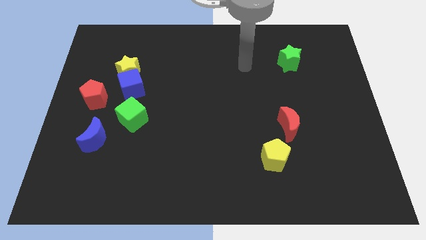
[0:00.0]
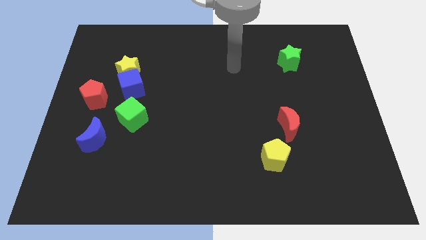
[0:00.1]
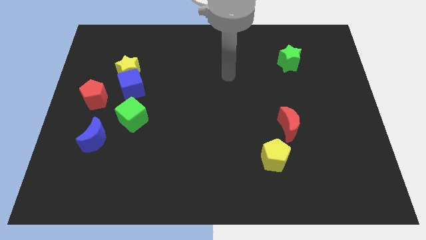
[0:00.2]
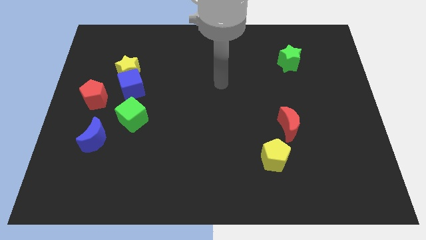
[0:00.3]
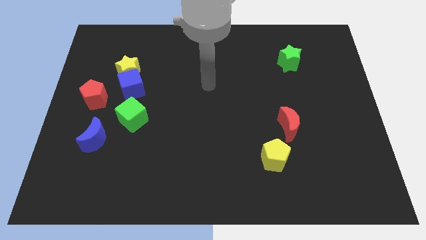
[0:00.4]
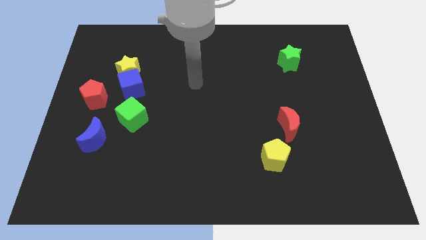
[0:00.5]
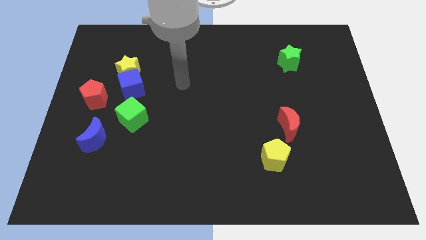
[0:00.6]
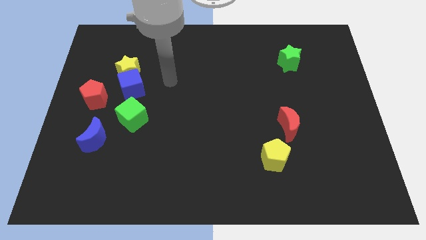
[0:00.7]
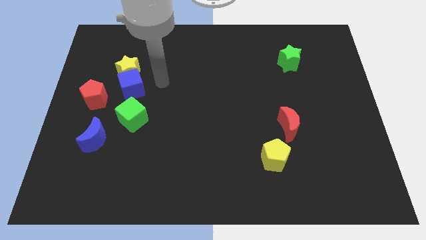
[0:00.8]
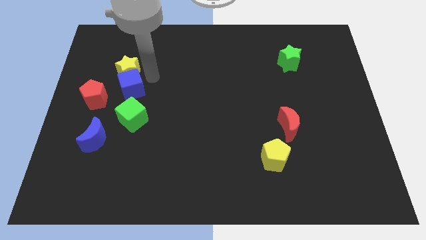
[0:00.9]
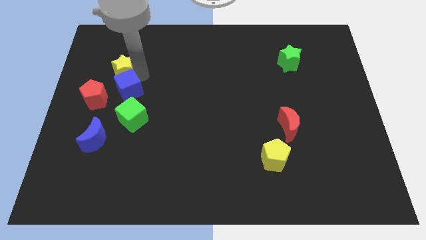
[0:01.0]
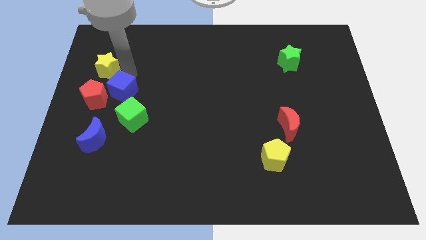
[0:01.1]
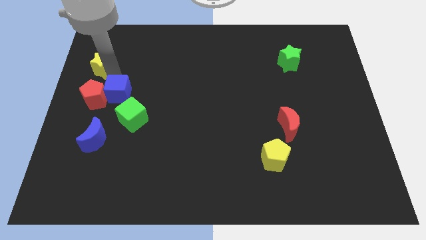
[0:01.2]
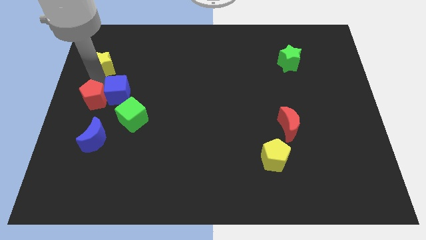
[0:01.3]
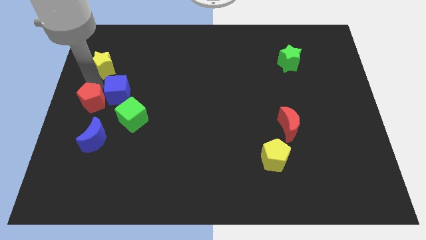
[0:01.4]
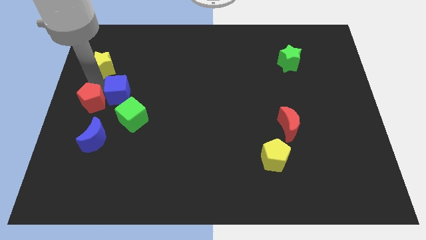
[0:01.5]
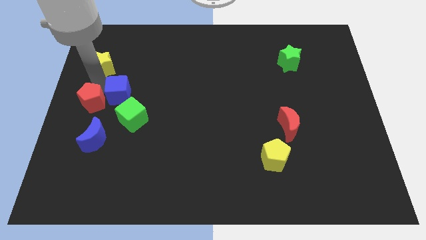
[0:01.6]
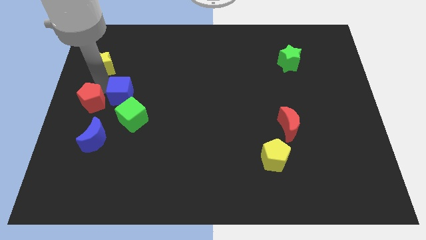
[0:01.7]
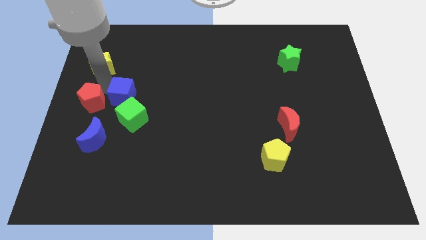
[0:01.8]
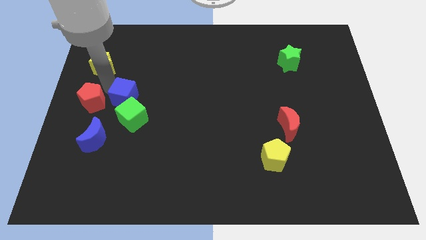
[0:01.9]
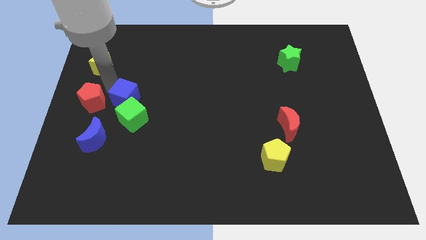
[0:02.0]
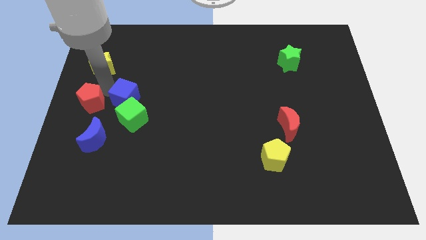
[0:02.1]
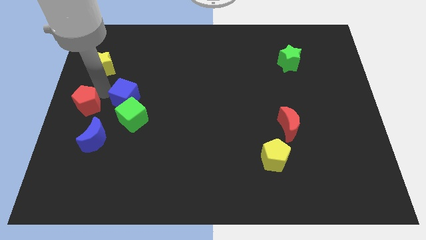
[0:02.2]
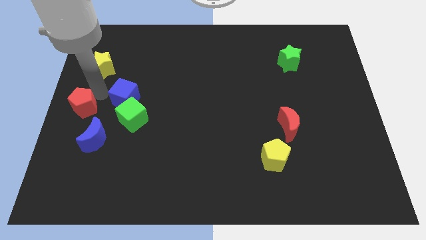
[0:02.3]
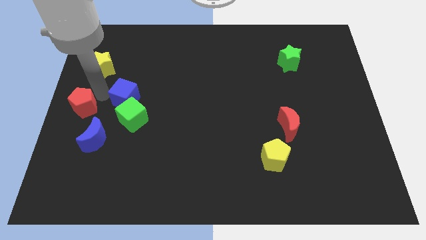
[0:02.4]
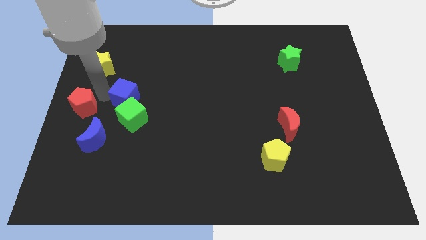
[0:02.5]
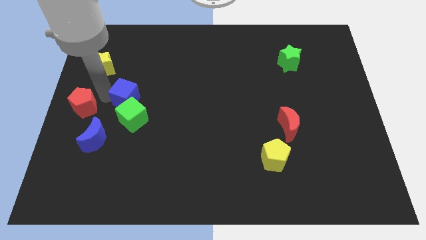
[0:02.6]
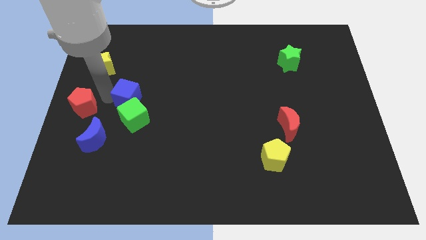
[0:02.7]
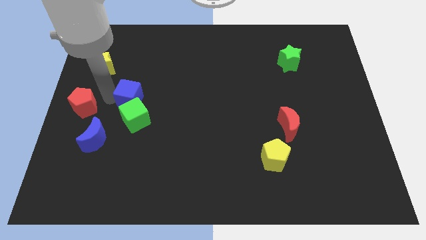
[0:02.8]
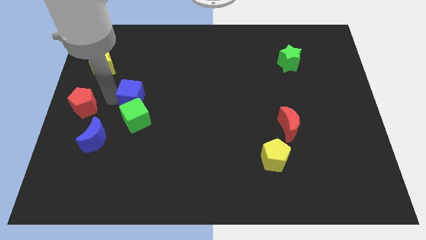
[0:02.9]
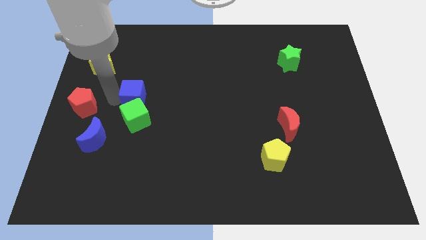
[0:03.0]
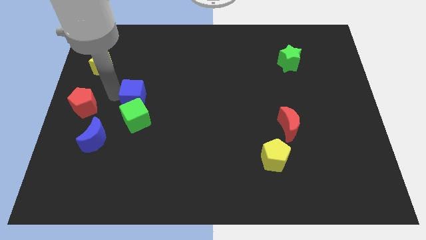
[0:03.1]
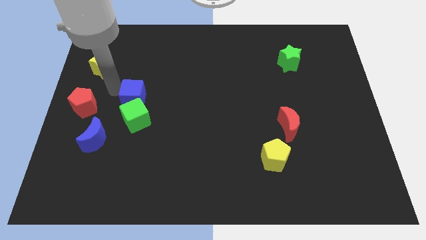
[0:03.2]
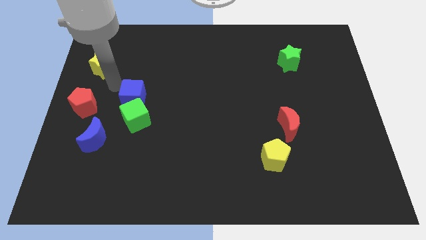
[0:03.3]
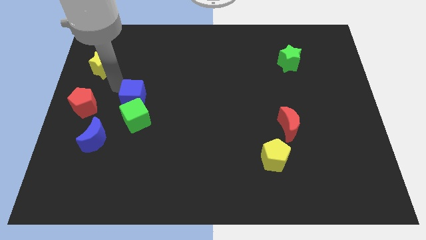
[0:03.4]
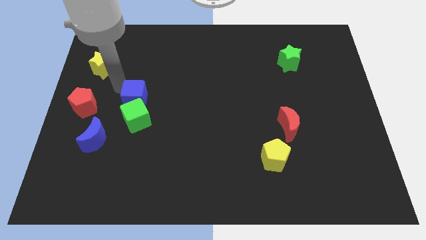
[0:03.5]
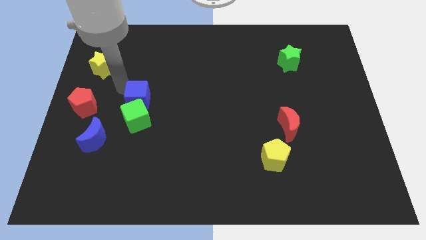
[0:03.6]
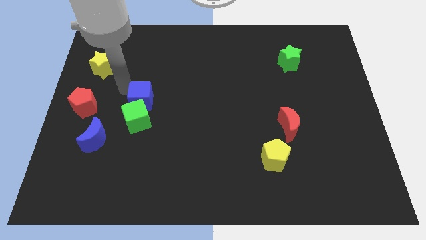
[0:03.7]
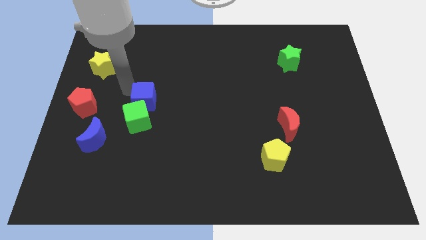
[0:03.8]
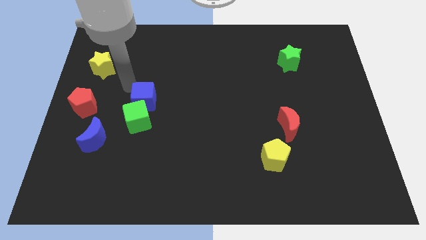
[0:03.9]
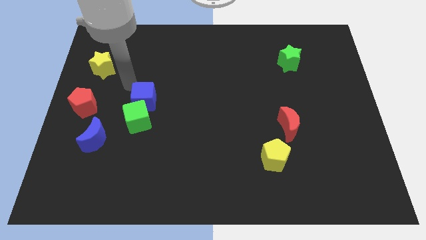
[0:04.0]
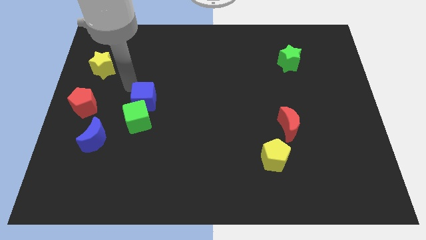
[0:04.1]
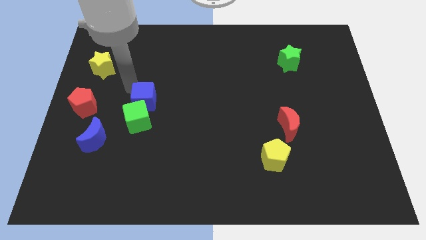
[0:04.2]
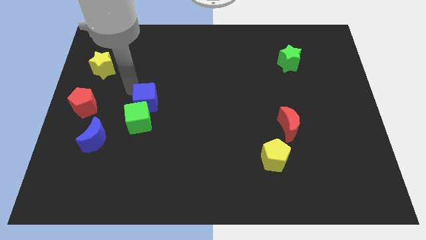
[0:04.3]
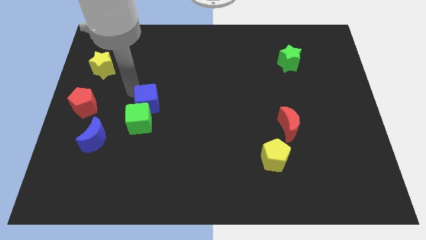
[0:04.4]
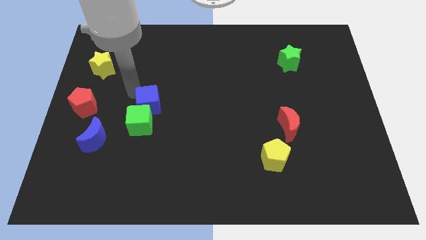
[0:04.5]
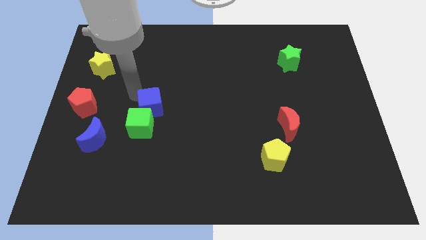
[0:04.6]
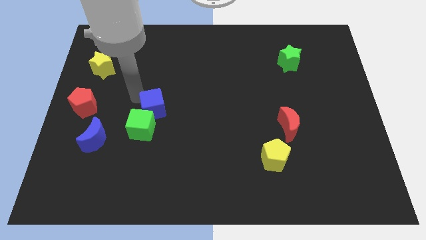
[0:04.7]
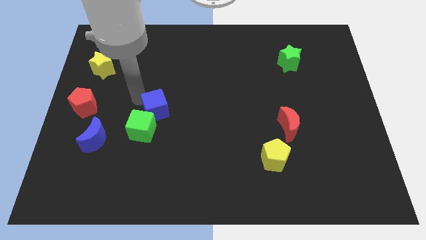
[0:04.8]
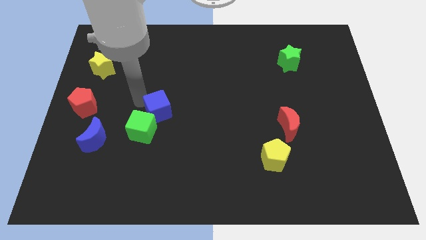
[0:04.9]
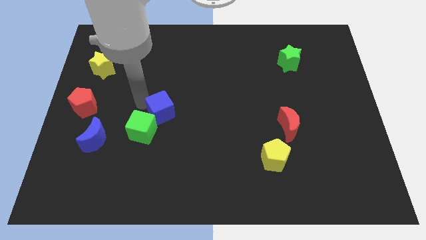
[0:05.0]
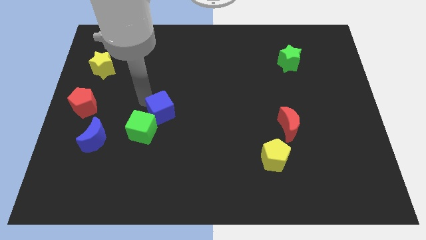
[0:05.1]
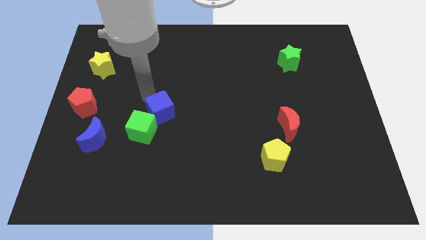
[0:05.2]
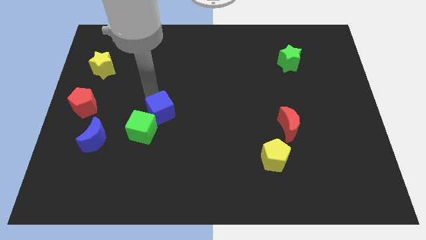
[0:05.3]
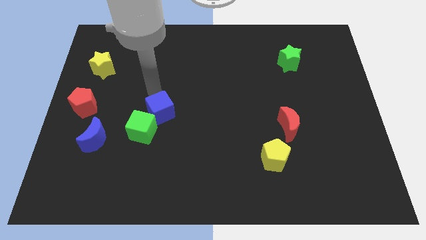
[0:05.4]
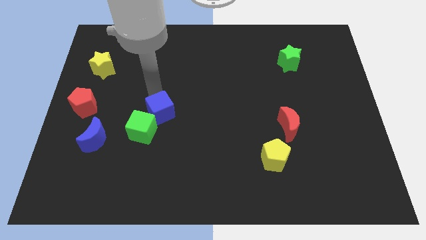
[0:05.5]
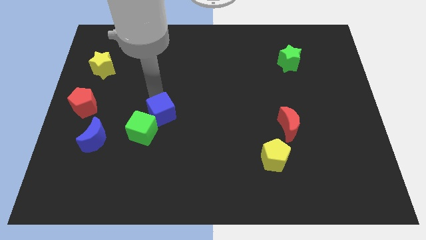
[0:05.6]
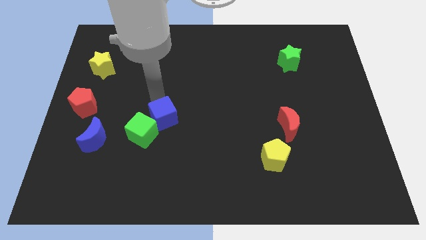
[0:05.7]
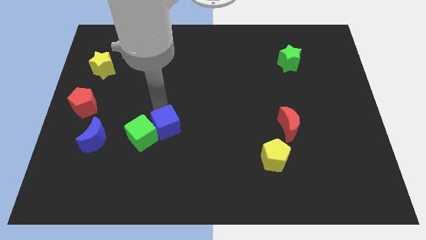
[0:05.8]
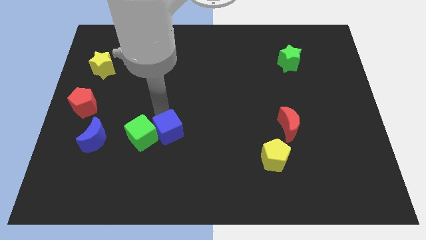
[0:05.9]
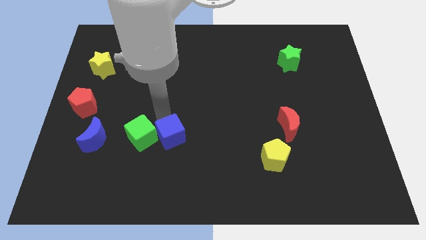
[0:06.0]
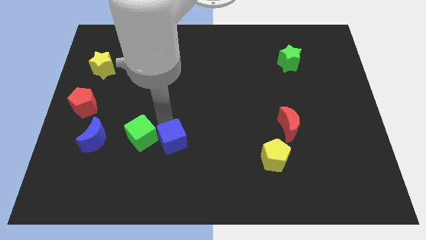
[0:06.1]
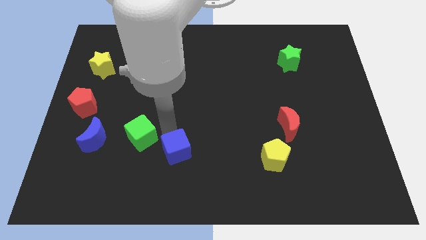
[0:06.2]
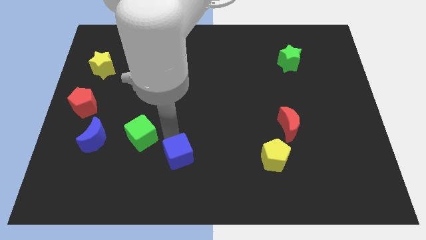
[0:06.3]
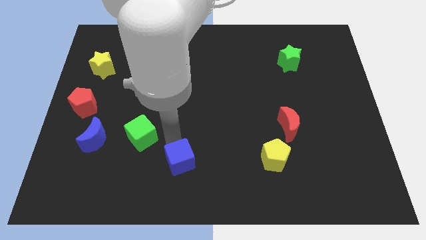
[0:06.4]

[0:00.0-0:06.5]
push the blue cube to the bottom
